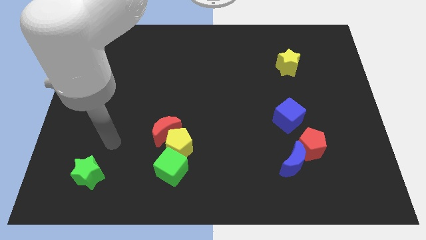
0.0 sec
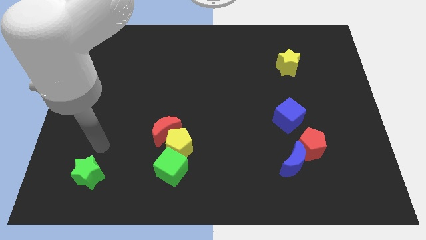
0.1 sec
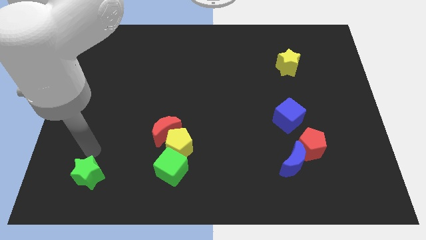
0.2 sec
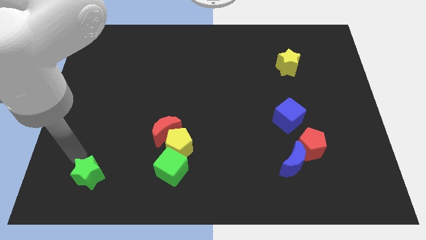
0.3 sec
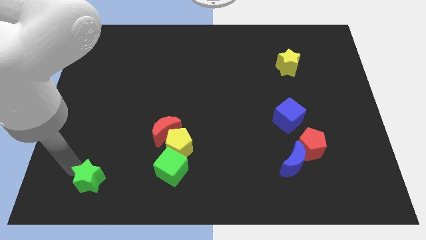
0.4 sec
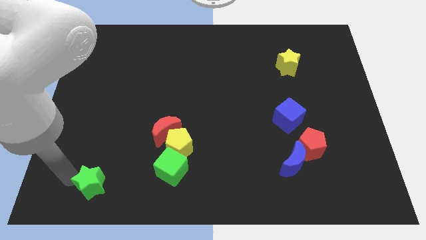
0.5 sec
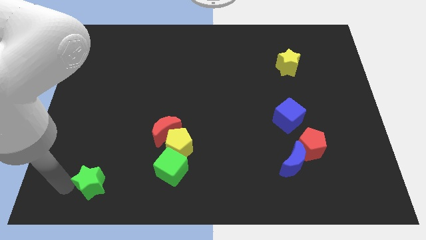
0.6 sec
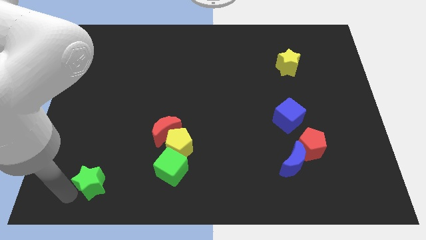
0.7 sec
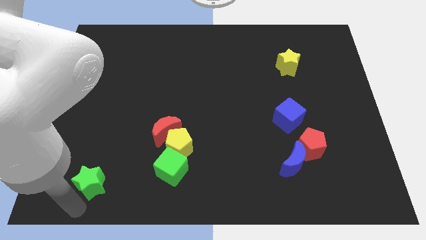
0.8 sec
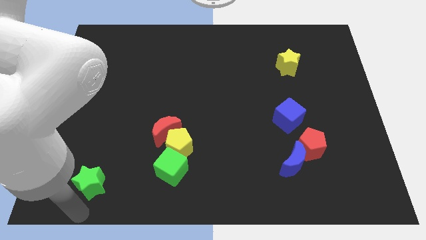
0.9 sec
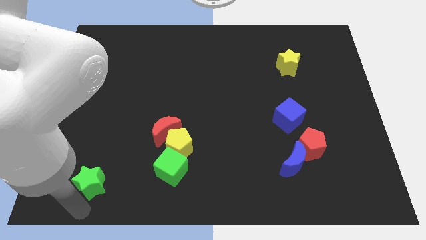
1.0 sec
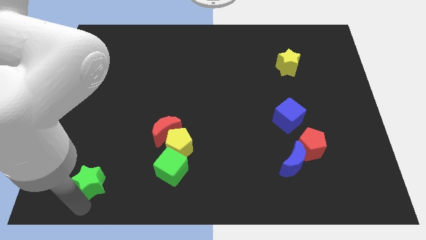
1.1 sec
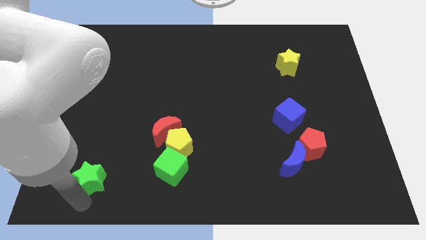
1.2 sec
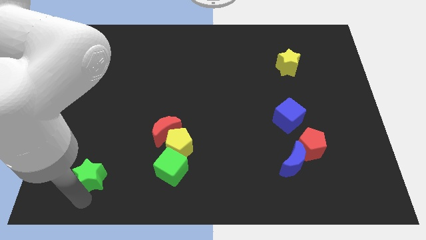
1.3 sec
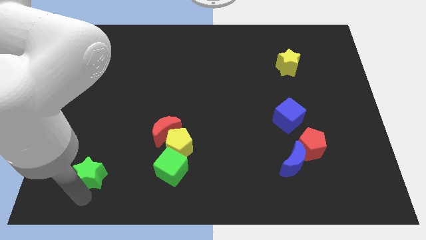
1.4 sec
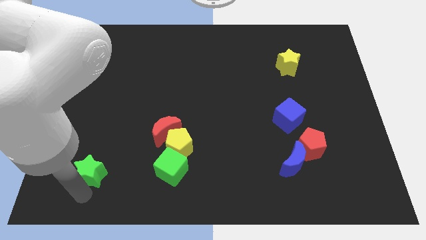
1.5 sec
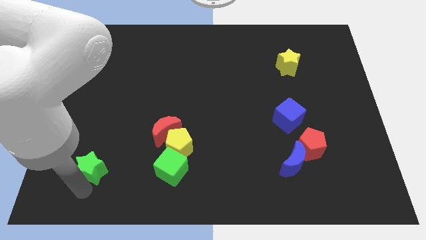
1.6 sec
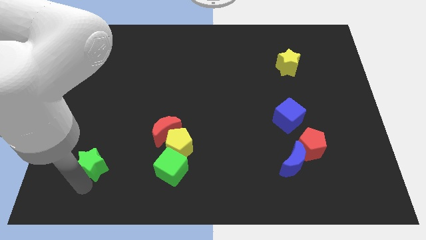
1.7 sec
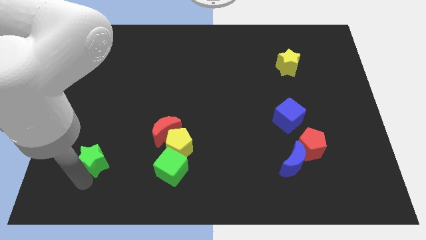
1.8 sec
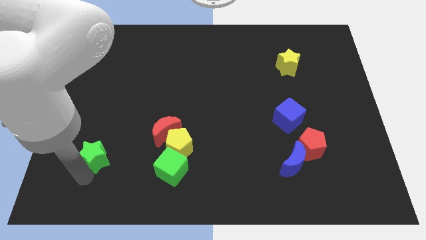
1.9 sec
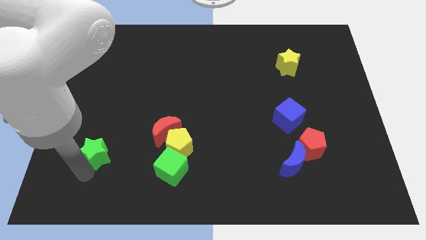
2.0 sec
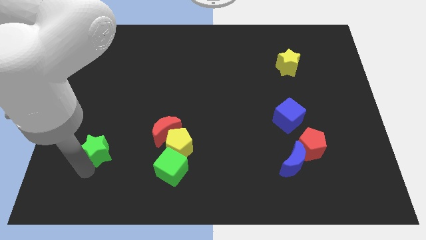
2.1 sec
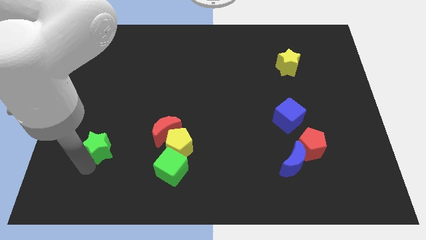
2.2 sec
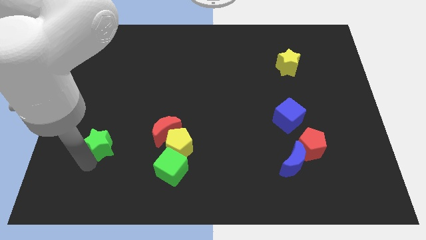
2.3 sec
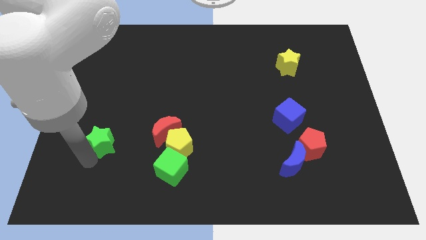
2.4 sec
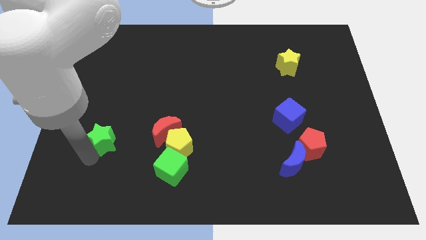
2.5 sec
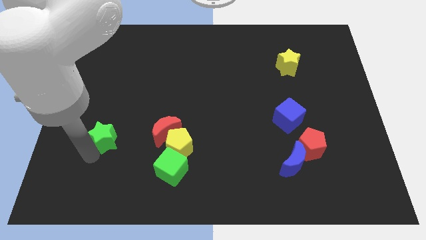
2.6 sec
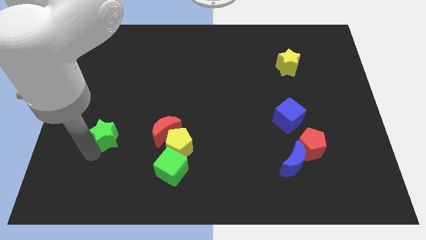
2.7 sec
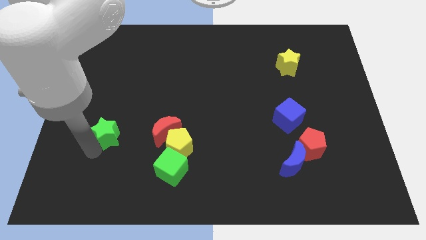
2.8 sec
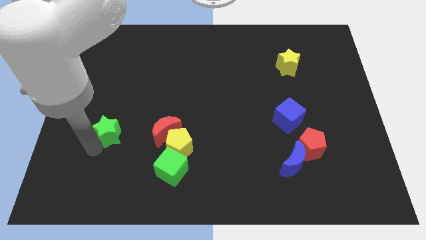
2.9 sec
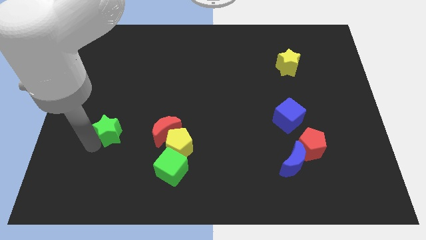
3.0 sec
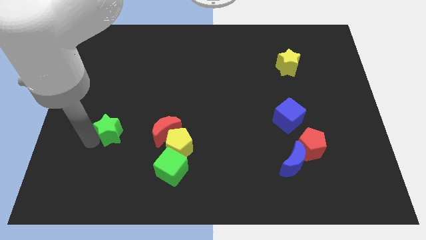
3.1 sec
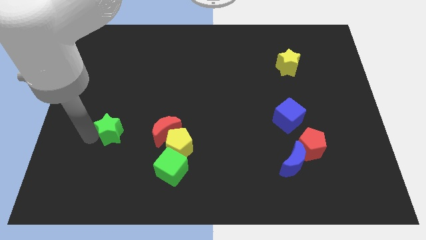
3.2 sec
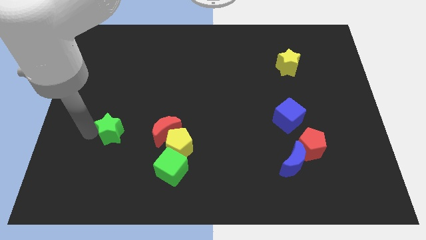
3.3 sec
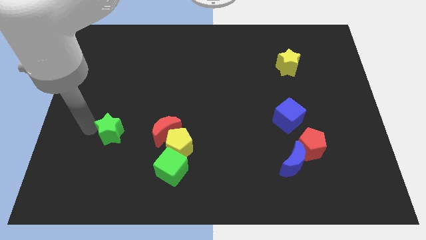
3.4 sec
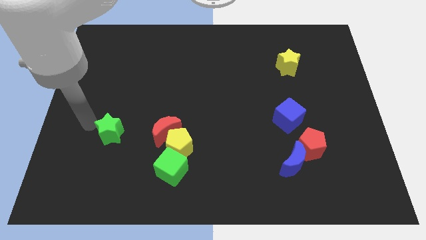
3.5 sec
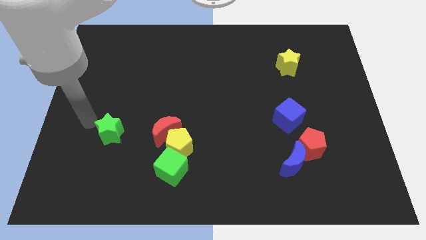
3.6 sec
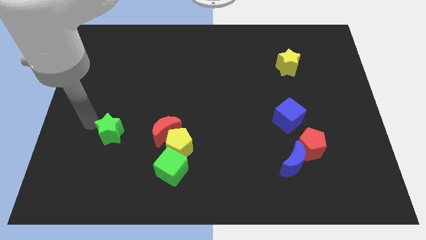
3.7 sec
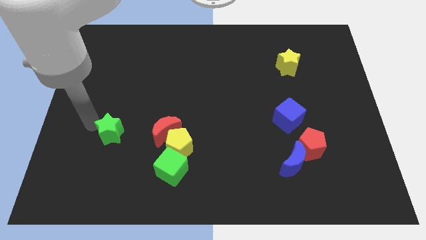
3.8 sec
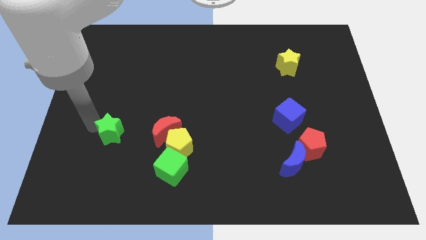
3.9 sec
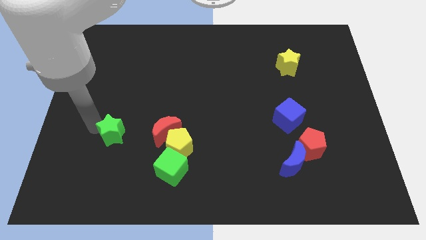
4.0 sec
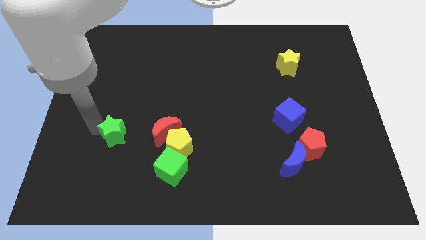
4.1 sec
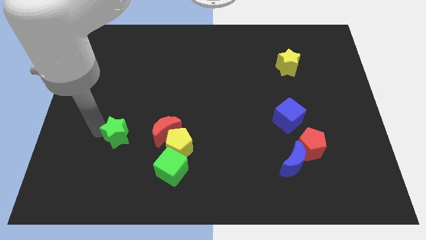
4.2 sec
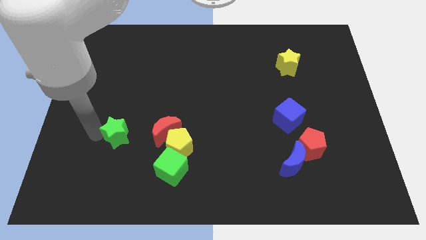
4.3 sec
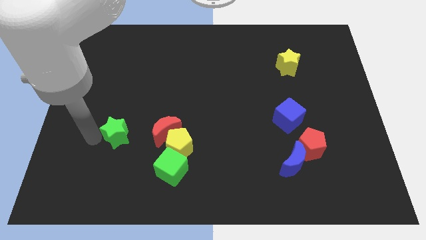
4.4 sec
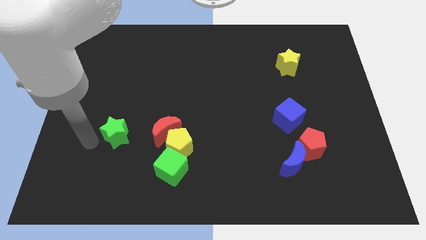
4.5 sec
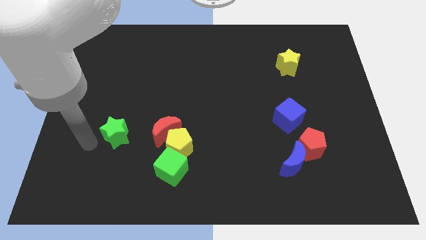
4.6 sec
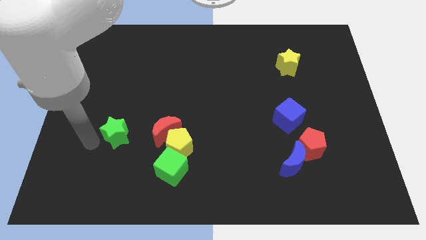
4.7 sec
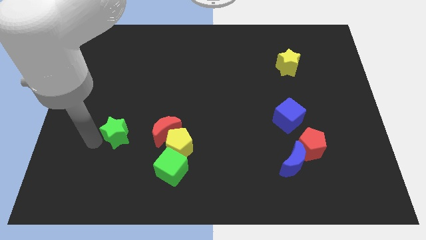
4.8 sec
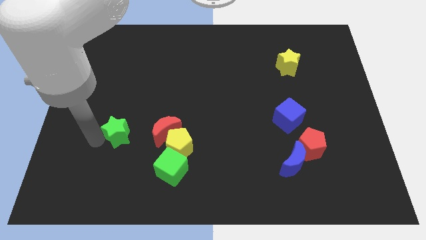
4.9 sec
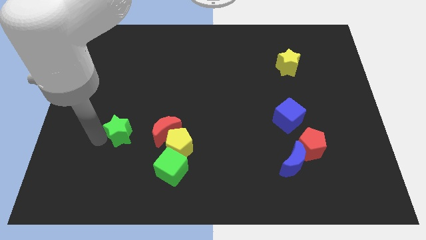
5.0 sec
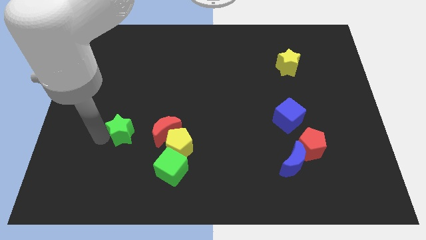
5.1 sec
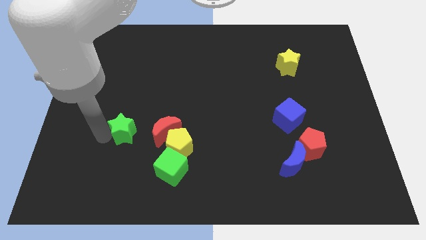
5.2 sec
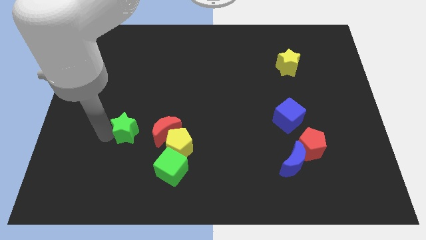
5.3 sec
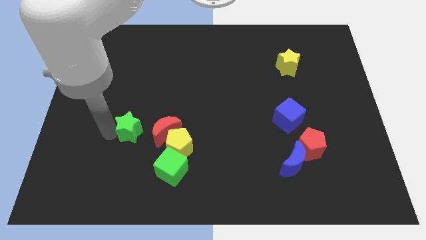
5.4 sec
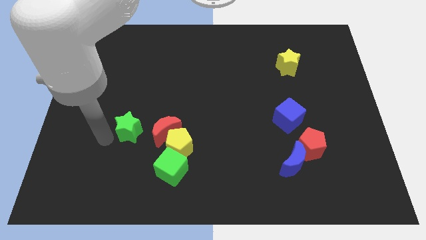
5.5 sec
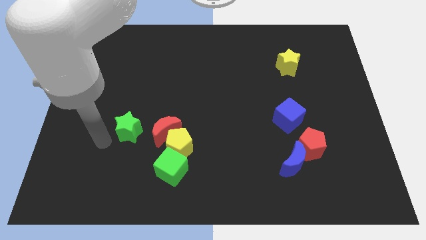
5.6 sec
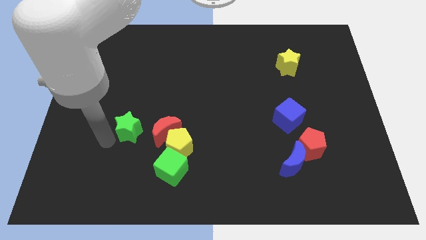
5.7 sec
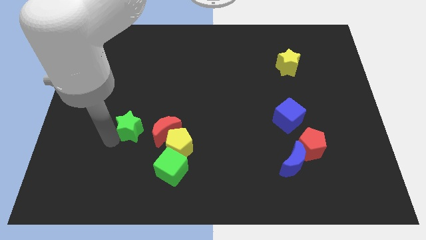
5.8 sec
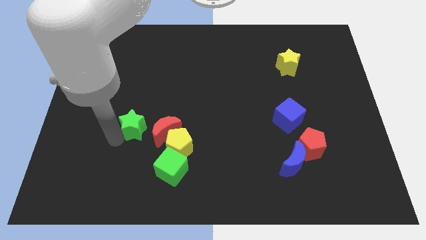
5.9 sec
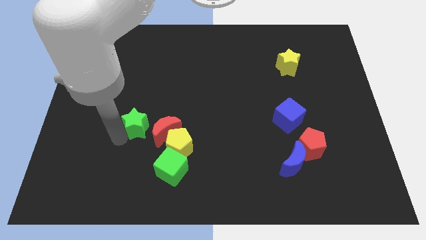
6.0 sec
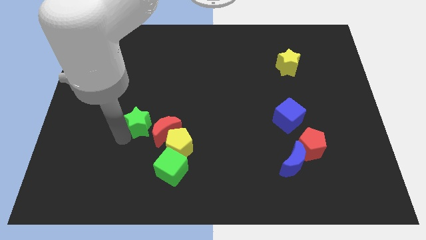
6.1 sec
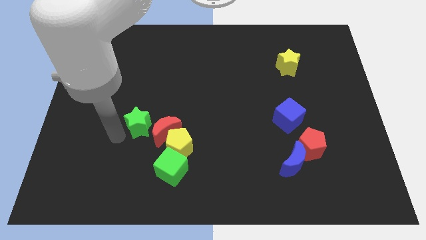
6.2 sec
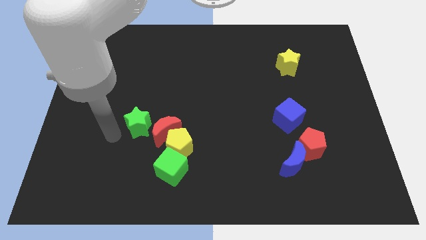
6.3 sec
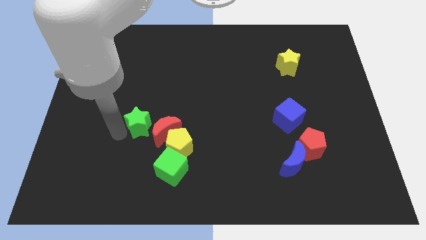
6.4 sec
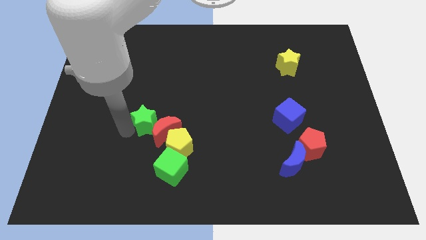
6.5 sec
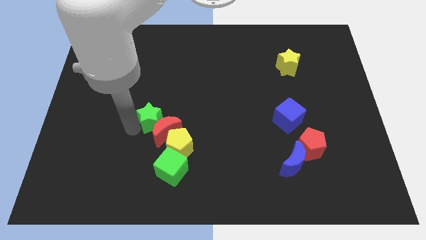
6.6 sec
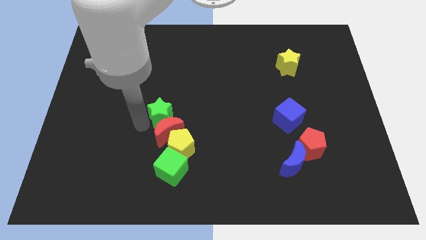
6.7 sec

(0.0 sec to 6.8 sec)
push the green star to the center of the board

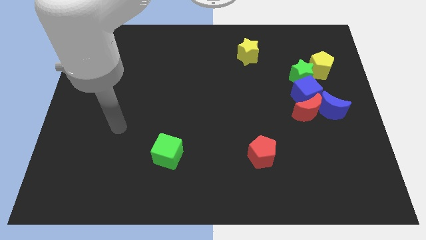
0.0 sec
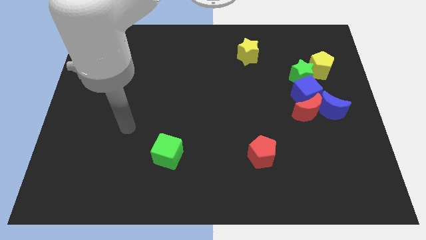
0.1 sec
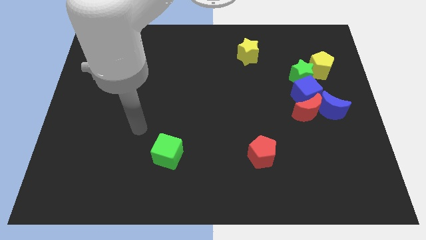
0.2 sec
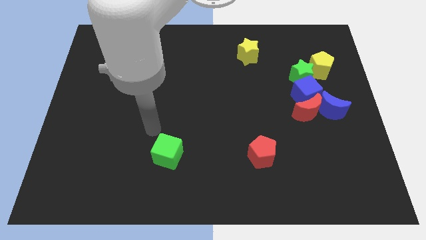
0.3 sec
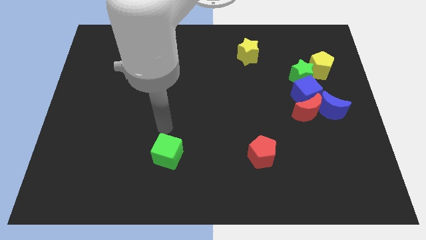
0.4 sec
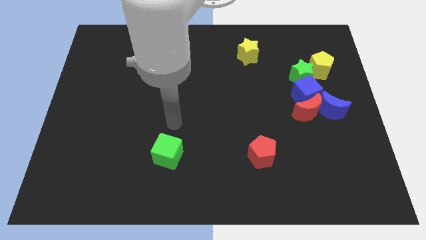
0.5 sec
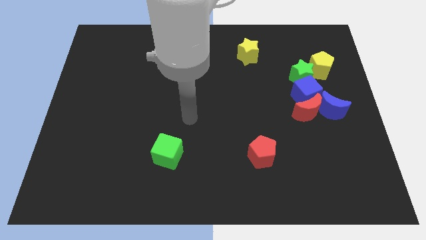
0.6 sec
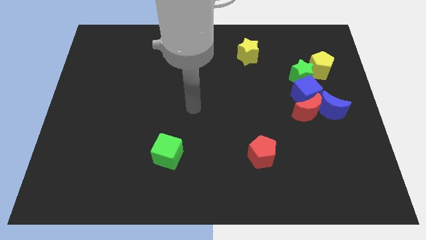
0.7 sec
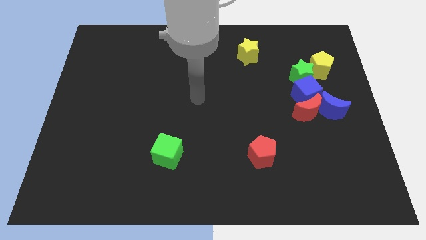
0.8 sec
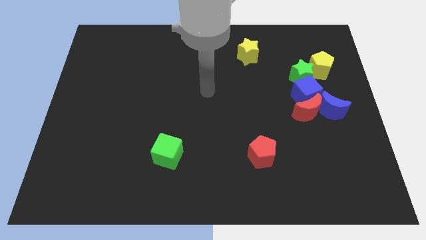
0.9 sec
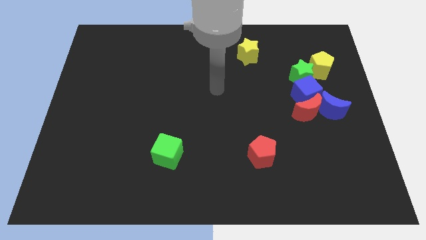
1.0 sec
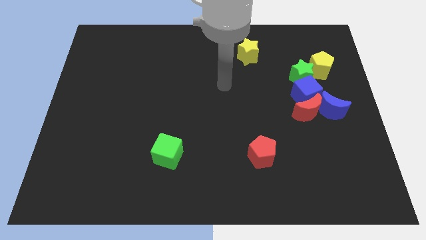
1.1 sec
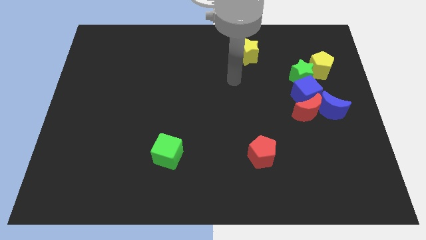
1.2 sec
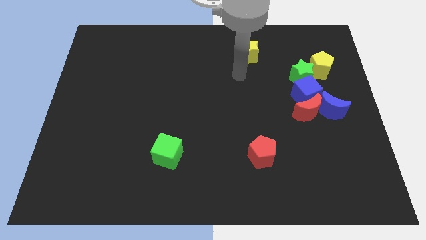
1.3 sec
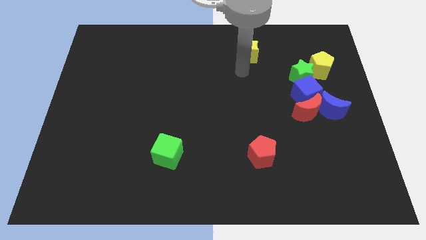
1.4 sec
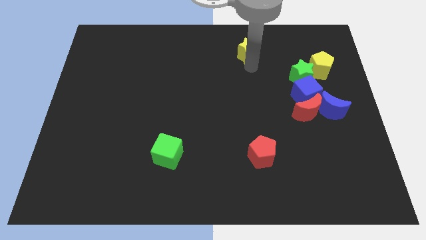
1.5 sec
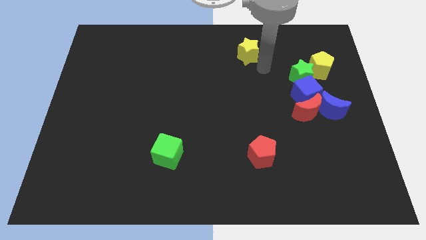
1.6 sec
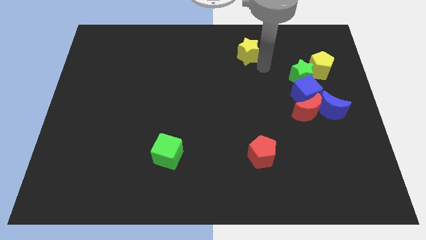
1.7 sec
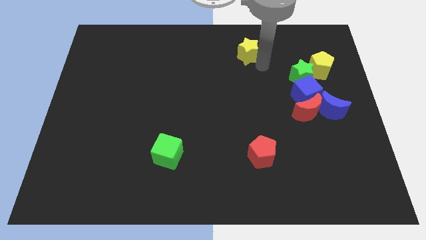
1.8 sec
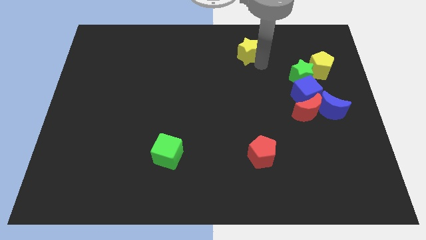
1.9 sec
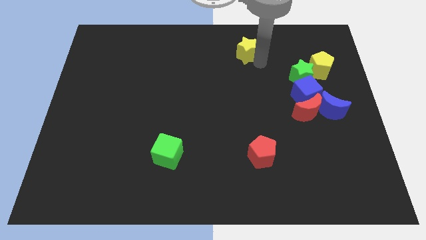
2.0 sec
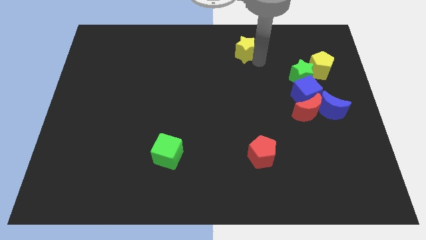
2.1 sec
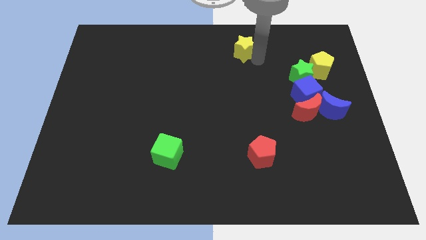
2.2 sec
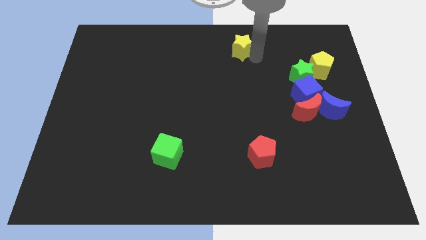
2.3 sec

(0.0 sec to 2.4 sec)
push the yellow star to the top side
